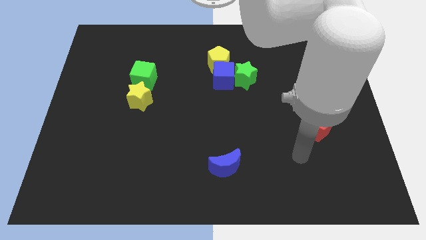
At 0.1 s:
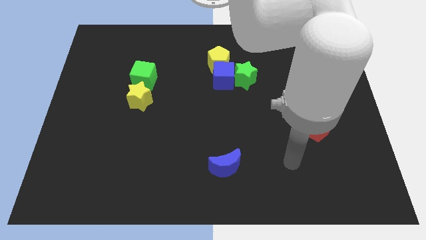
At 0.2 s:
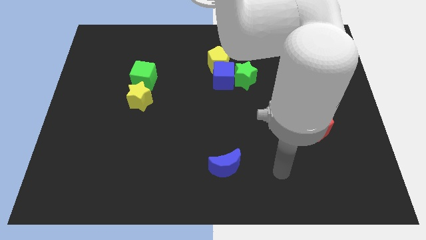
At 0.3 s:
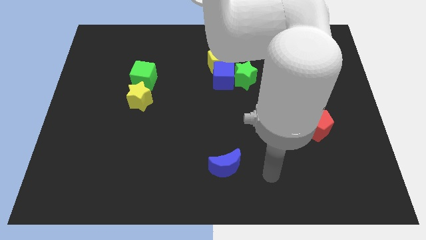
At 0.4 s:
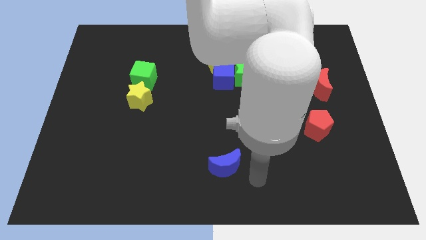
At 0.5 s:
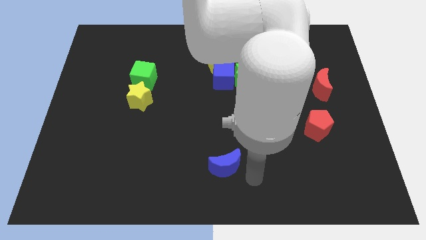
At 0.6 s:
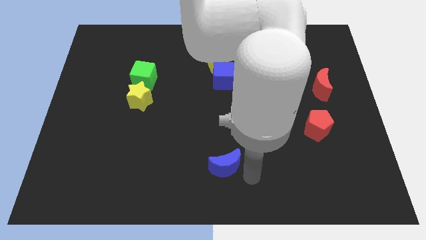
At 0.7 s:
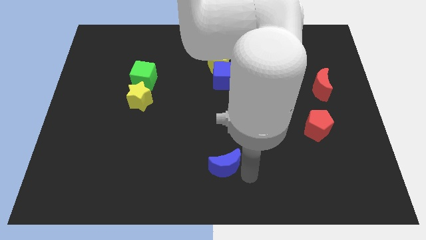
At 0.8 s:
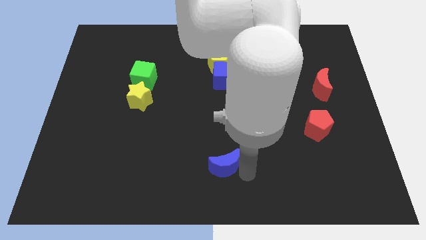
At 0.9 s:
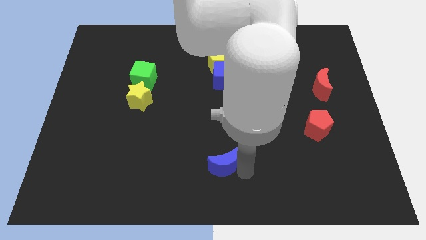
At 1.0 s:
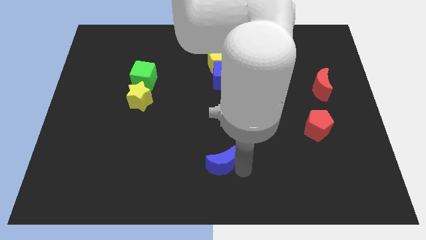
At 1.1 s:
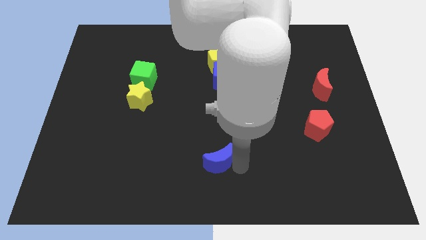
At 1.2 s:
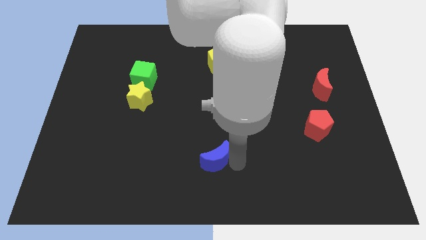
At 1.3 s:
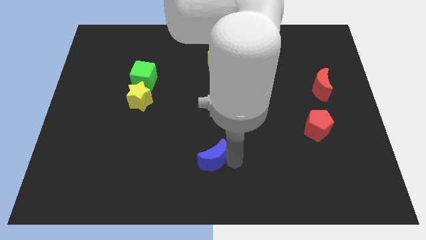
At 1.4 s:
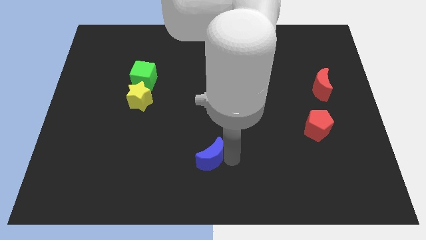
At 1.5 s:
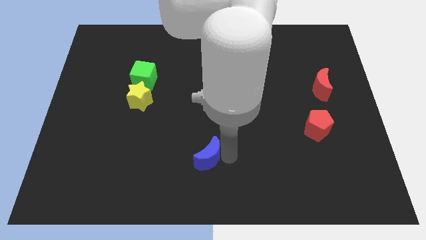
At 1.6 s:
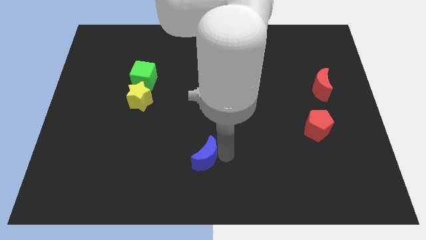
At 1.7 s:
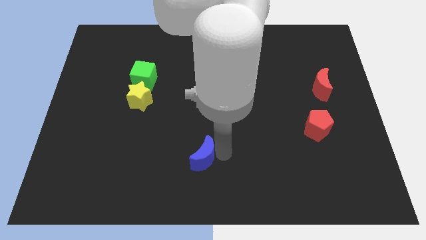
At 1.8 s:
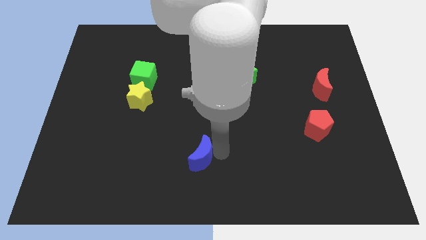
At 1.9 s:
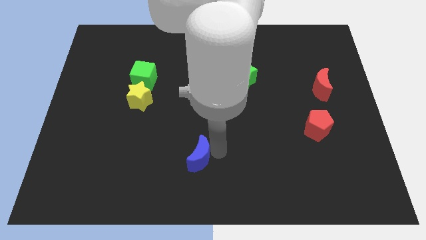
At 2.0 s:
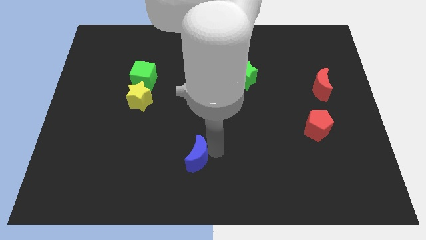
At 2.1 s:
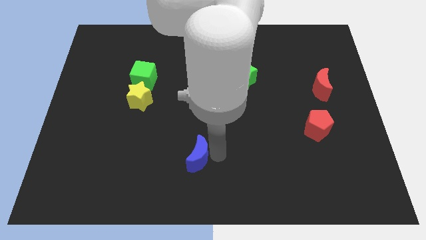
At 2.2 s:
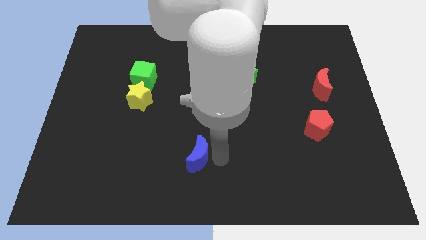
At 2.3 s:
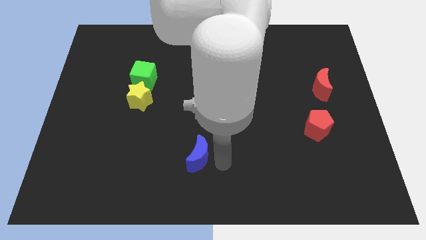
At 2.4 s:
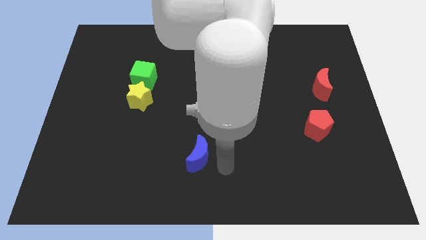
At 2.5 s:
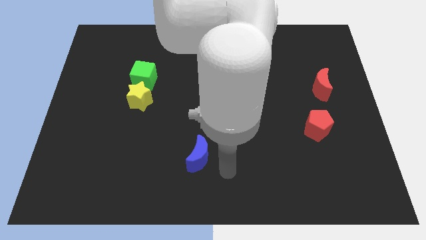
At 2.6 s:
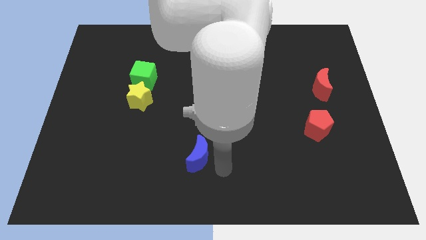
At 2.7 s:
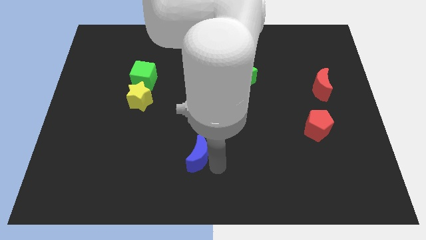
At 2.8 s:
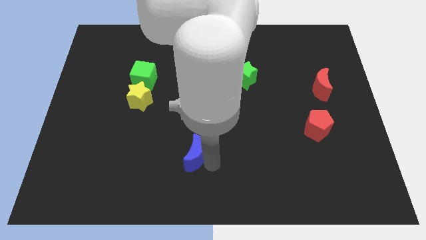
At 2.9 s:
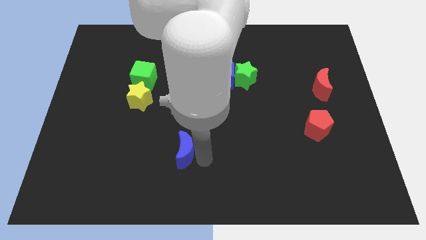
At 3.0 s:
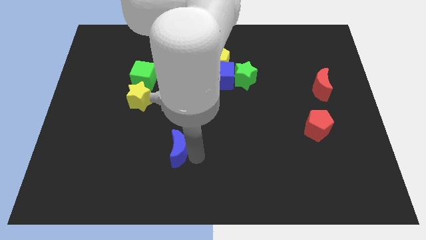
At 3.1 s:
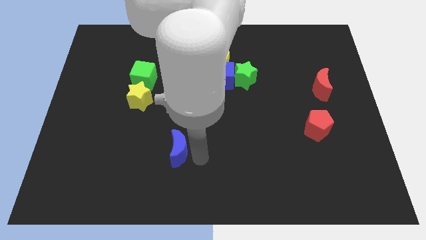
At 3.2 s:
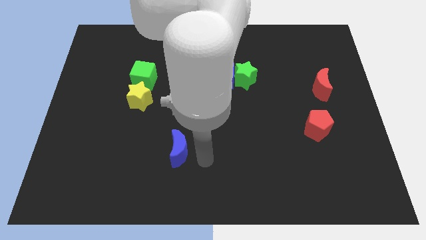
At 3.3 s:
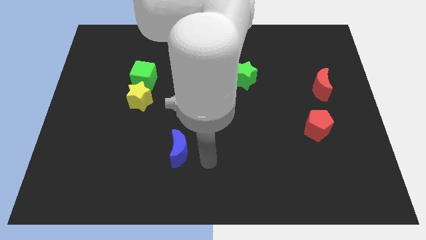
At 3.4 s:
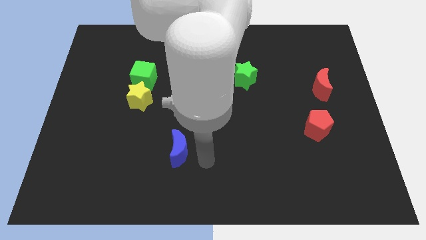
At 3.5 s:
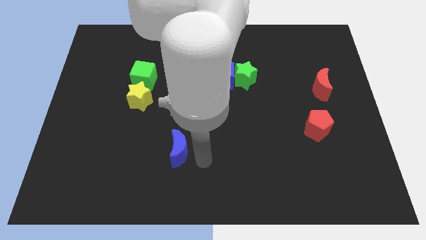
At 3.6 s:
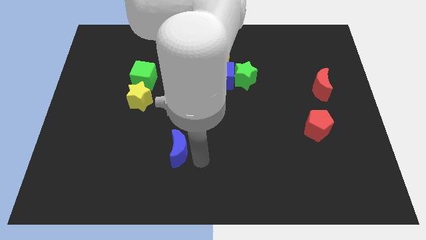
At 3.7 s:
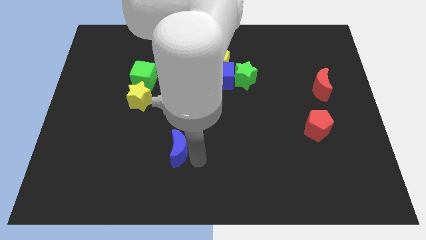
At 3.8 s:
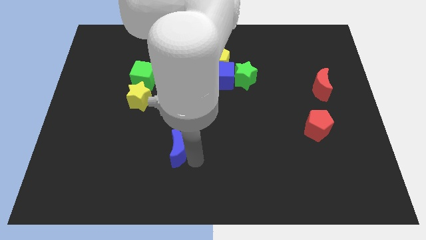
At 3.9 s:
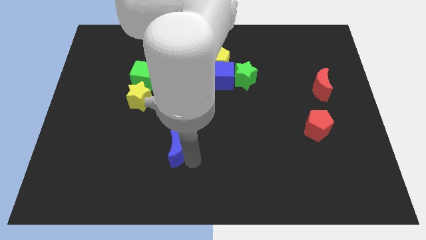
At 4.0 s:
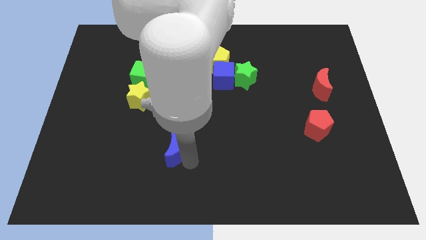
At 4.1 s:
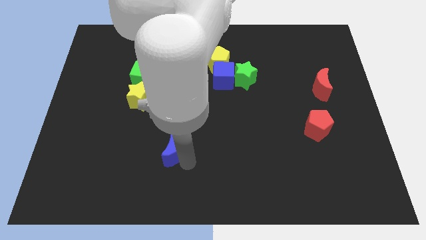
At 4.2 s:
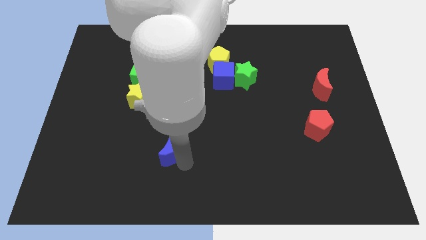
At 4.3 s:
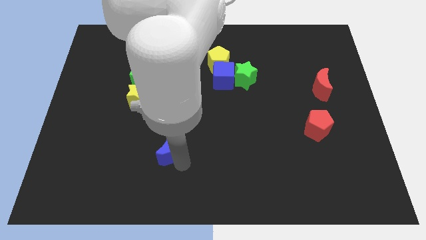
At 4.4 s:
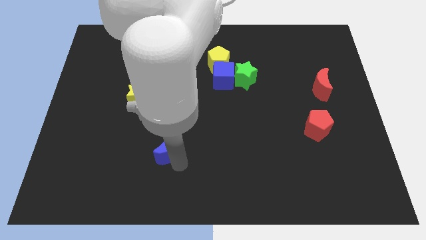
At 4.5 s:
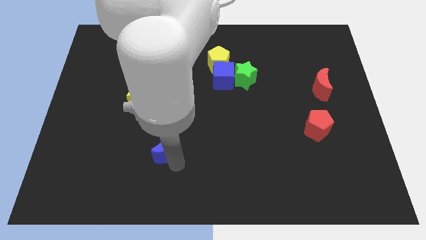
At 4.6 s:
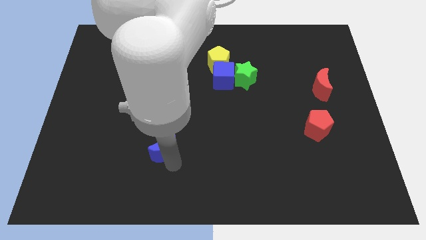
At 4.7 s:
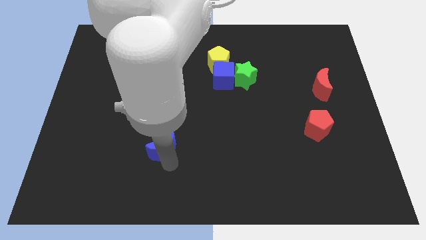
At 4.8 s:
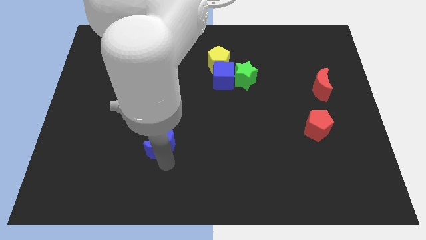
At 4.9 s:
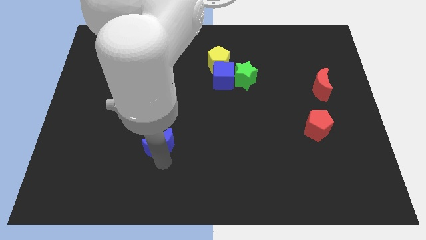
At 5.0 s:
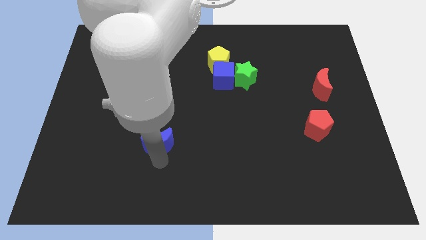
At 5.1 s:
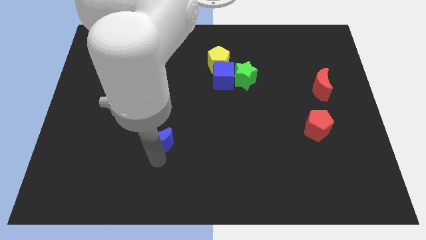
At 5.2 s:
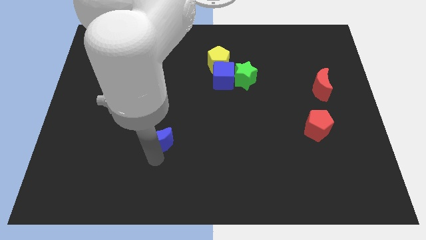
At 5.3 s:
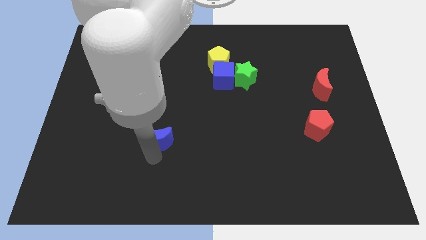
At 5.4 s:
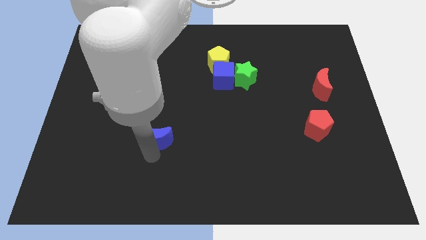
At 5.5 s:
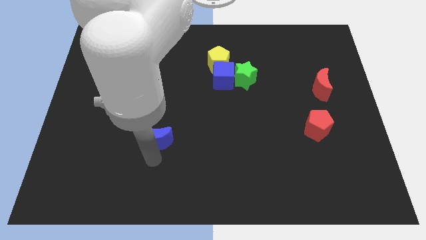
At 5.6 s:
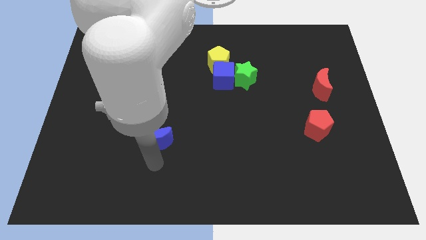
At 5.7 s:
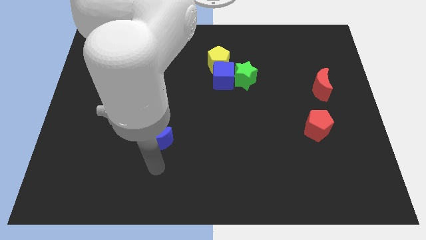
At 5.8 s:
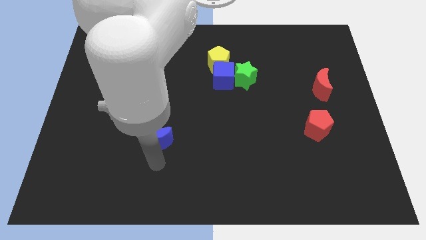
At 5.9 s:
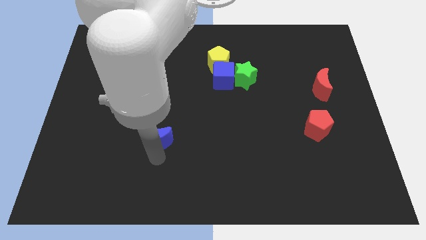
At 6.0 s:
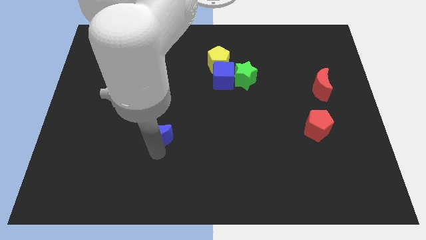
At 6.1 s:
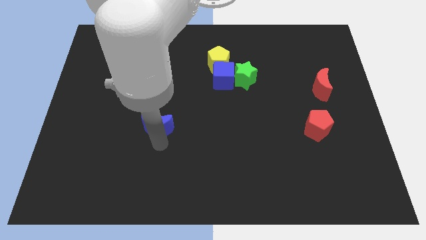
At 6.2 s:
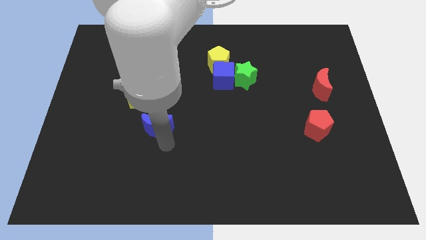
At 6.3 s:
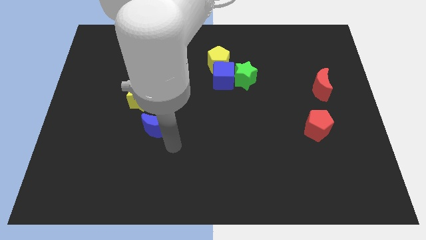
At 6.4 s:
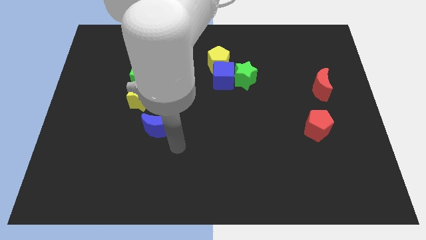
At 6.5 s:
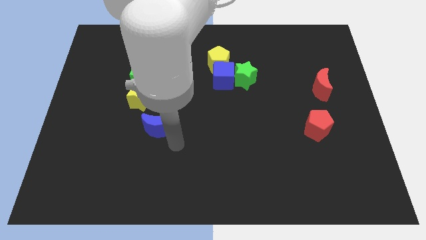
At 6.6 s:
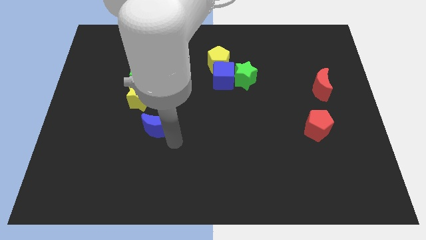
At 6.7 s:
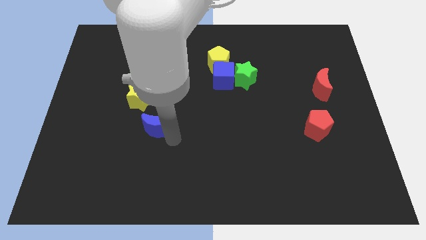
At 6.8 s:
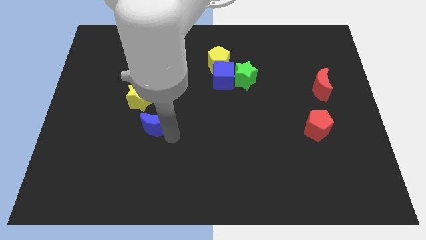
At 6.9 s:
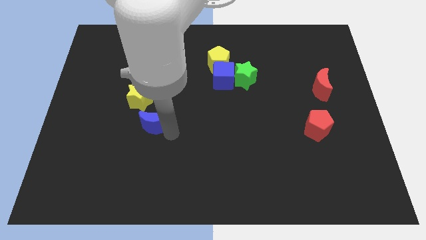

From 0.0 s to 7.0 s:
move the blue moon to the bottom of the green cube
